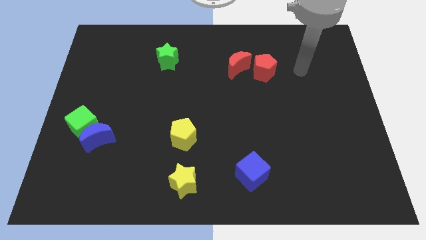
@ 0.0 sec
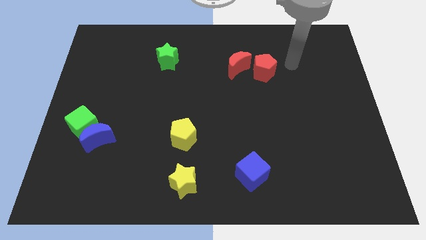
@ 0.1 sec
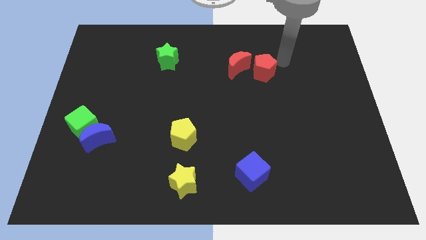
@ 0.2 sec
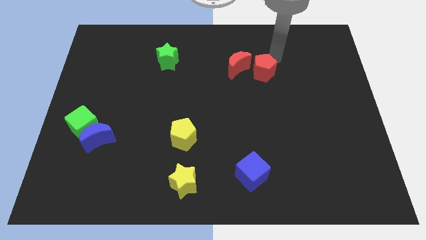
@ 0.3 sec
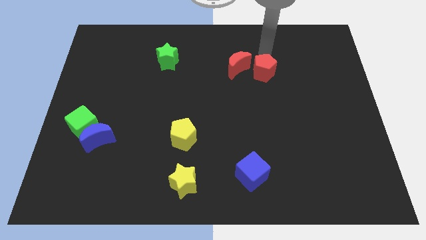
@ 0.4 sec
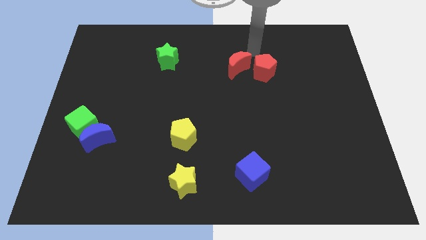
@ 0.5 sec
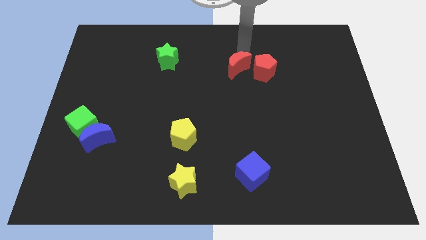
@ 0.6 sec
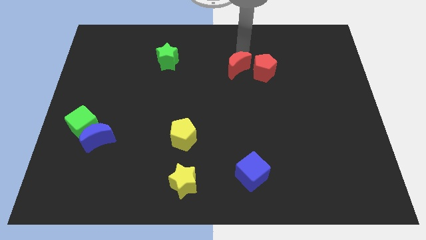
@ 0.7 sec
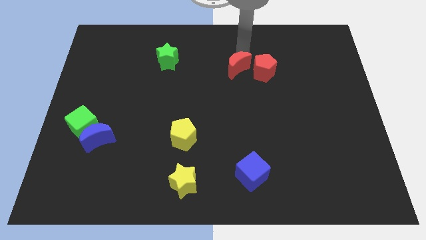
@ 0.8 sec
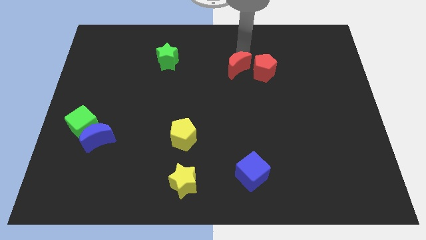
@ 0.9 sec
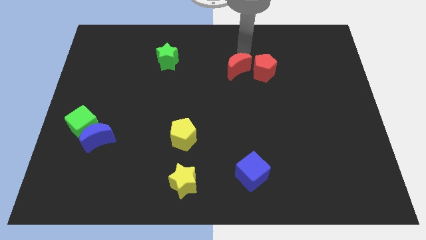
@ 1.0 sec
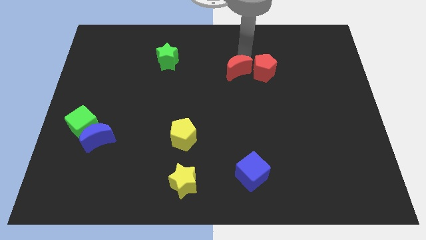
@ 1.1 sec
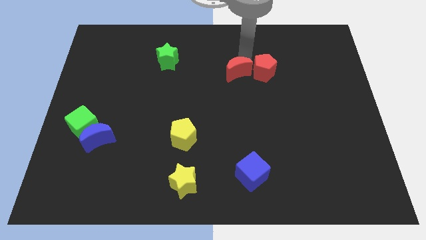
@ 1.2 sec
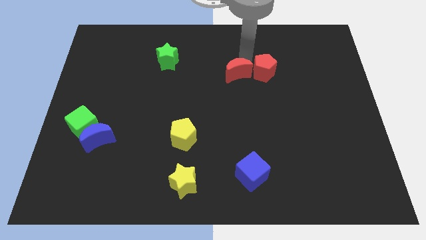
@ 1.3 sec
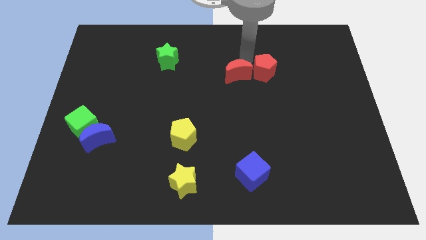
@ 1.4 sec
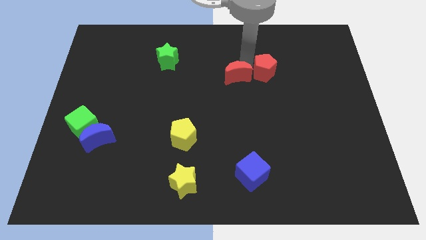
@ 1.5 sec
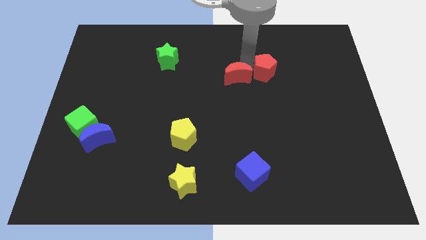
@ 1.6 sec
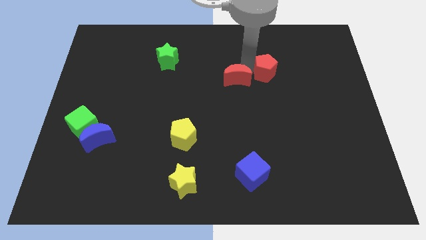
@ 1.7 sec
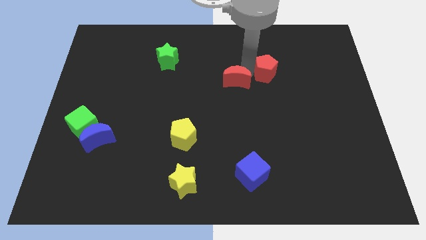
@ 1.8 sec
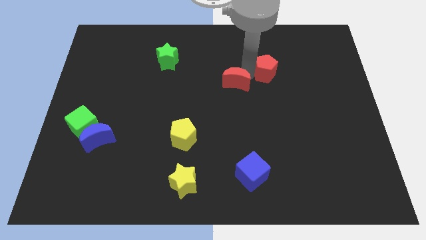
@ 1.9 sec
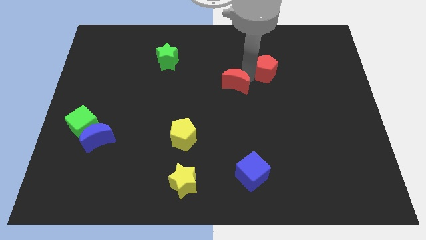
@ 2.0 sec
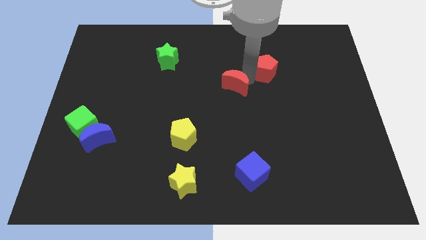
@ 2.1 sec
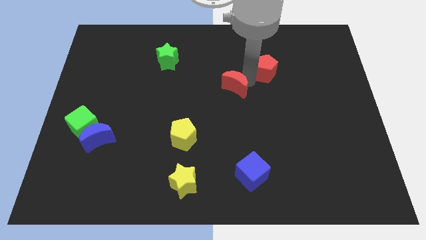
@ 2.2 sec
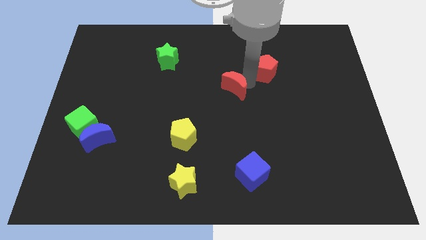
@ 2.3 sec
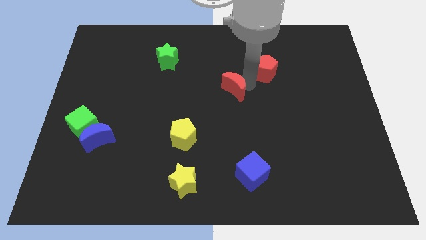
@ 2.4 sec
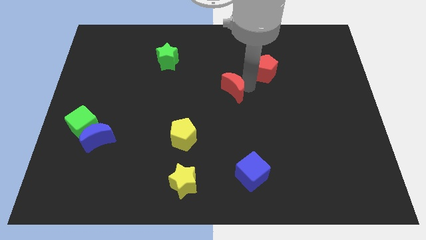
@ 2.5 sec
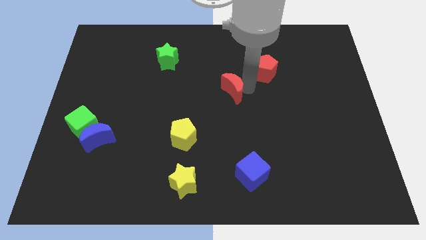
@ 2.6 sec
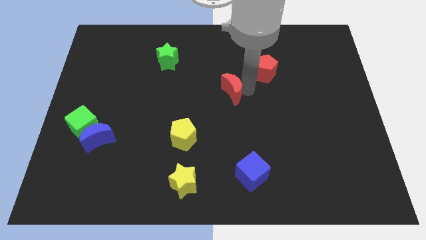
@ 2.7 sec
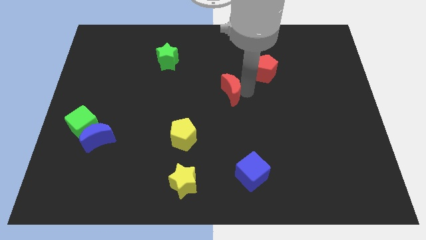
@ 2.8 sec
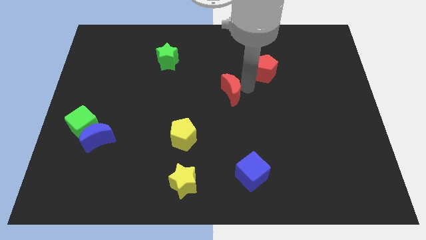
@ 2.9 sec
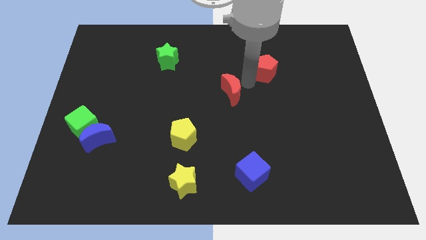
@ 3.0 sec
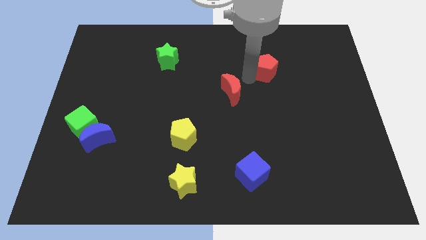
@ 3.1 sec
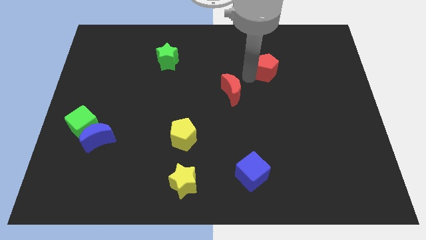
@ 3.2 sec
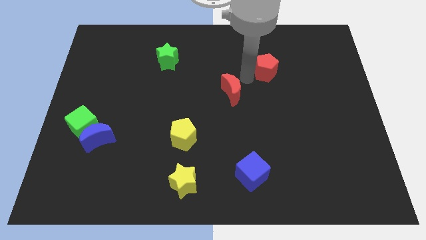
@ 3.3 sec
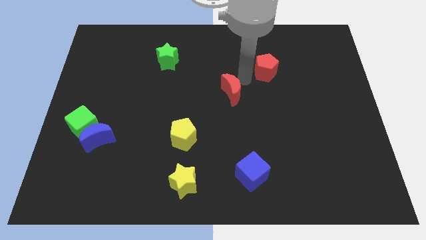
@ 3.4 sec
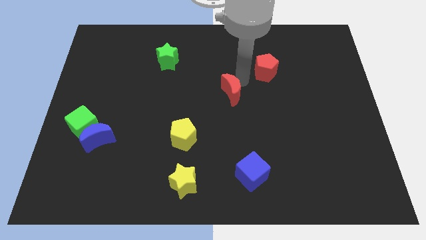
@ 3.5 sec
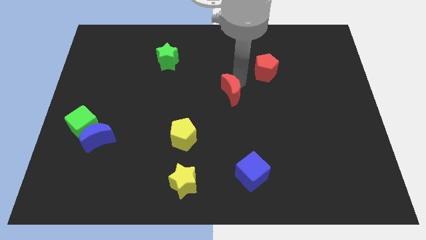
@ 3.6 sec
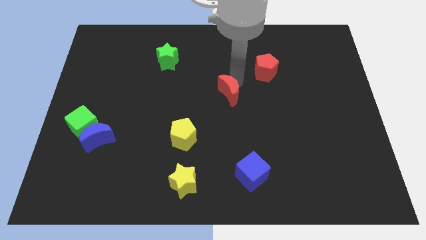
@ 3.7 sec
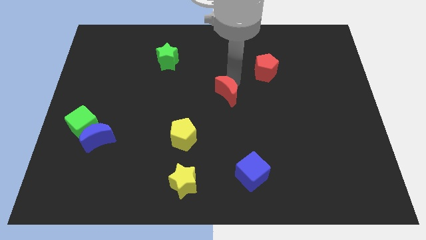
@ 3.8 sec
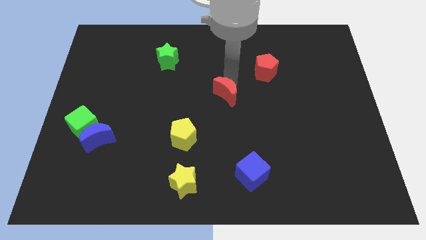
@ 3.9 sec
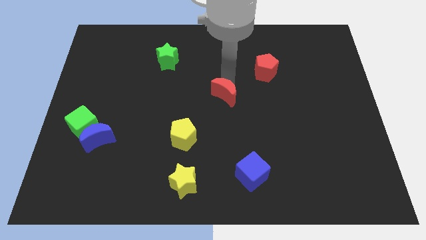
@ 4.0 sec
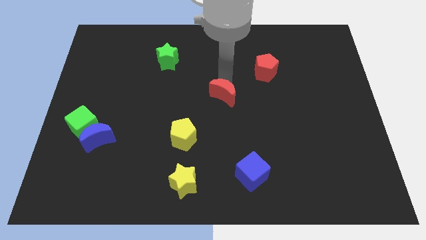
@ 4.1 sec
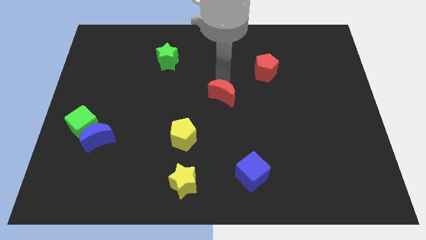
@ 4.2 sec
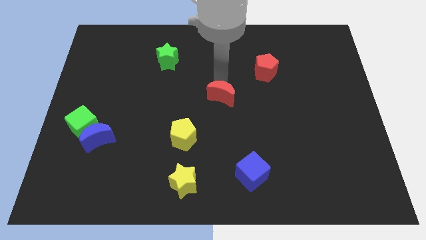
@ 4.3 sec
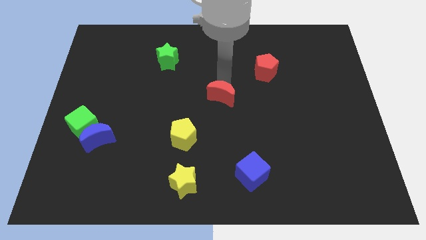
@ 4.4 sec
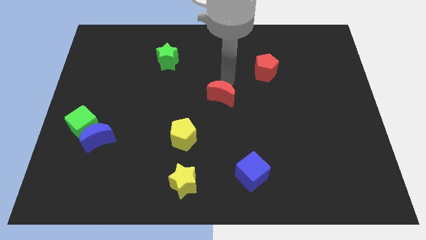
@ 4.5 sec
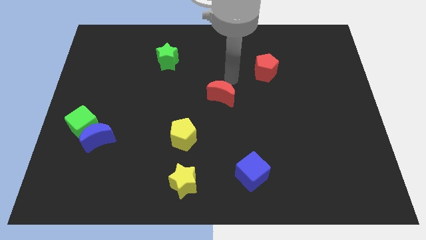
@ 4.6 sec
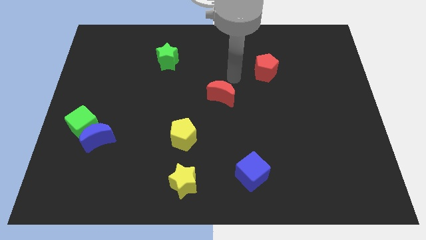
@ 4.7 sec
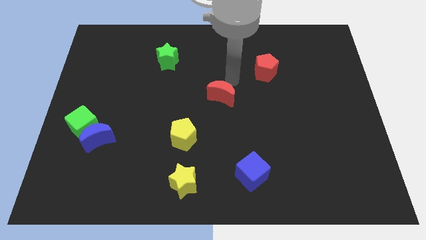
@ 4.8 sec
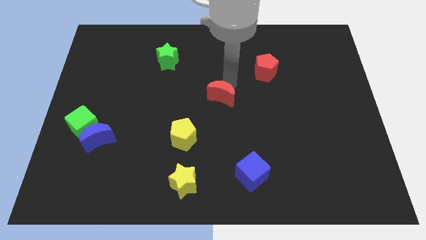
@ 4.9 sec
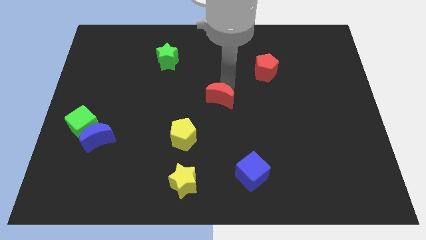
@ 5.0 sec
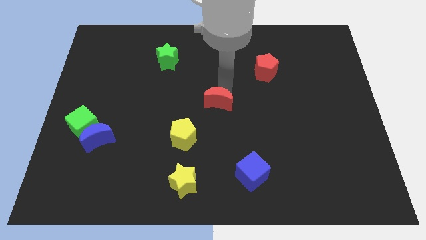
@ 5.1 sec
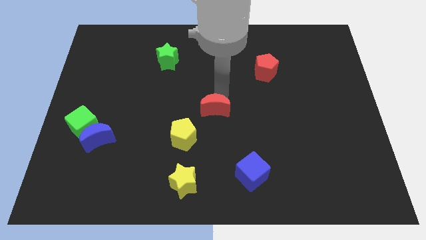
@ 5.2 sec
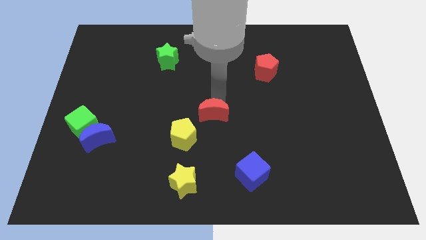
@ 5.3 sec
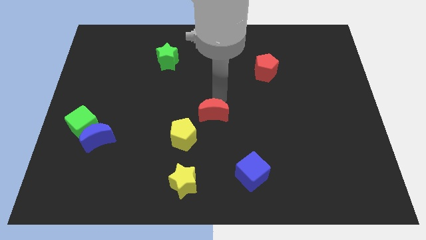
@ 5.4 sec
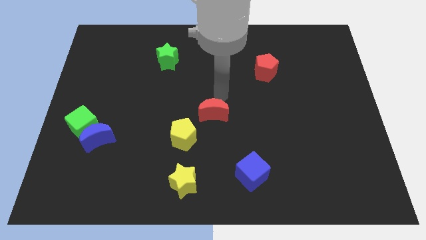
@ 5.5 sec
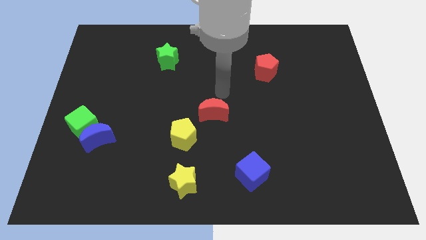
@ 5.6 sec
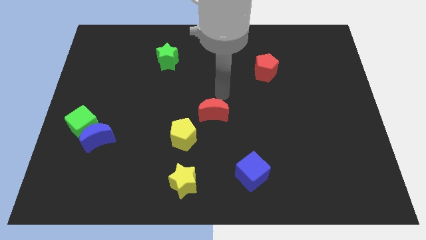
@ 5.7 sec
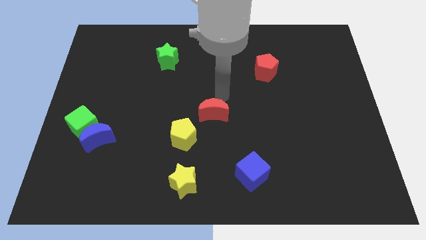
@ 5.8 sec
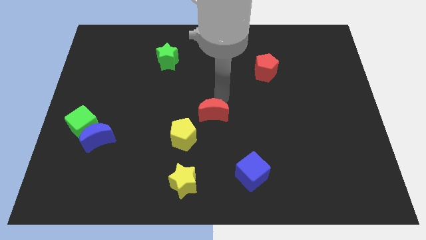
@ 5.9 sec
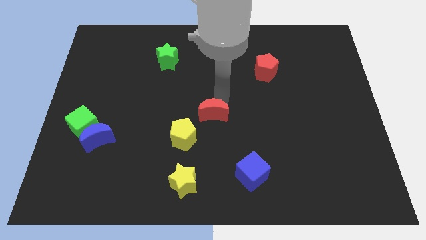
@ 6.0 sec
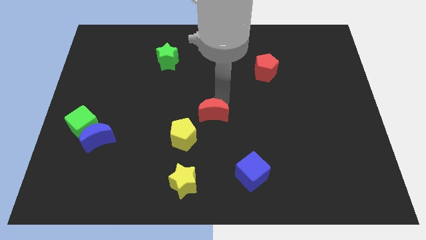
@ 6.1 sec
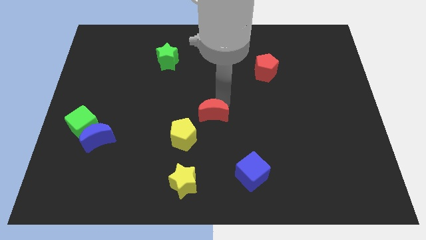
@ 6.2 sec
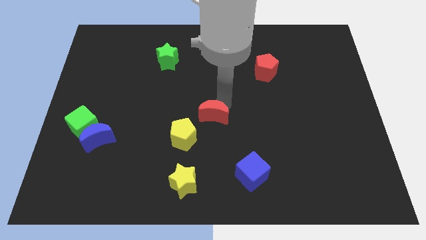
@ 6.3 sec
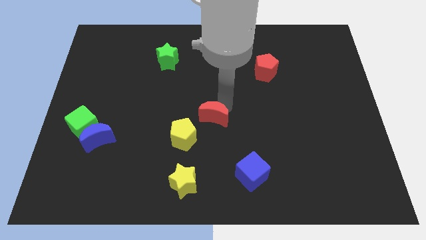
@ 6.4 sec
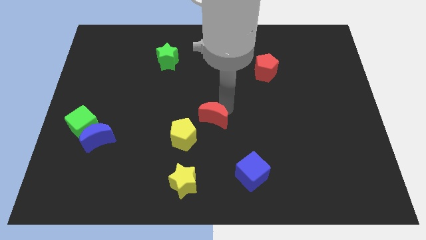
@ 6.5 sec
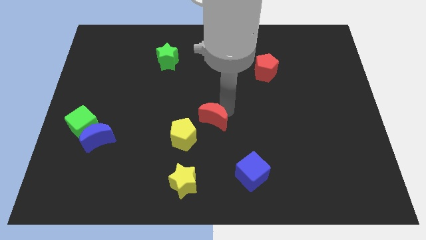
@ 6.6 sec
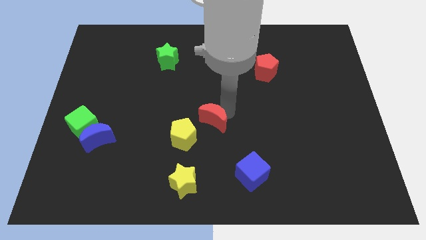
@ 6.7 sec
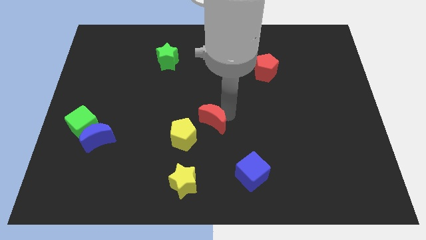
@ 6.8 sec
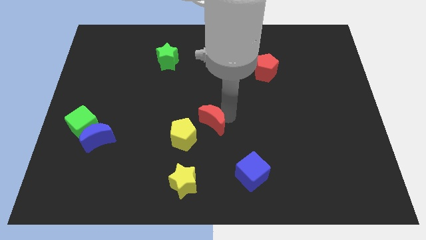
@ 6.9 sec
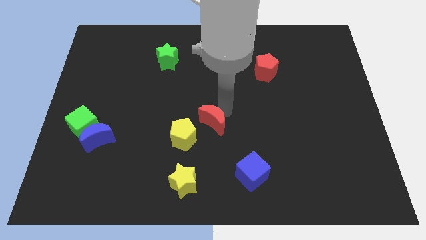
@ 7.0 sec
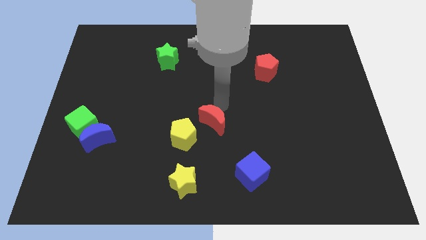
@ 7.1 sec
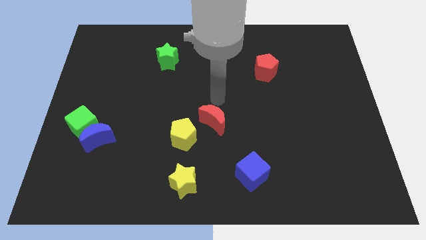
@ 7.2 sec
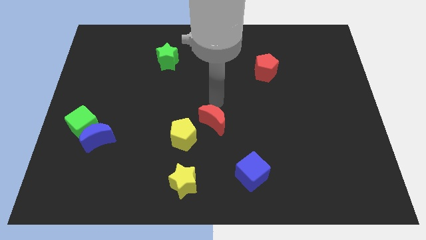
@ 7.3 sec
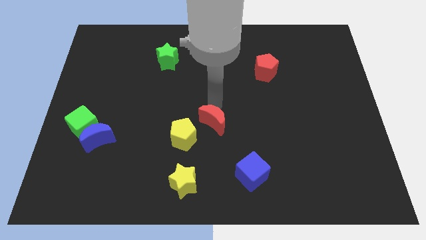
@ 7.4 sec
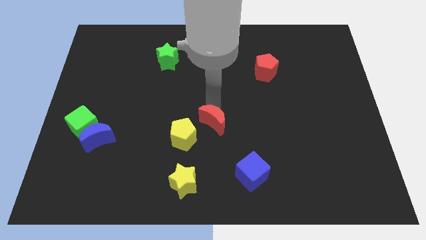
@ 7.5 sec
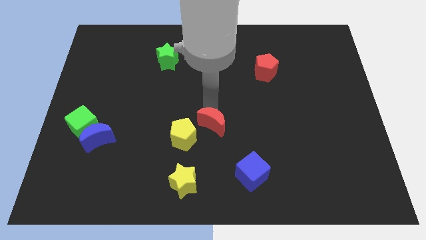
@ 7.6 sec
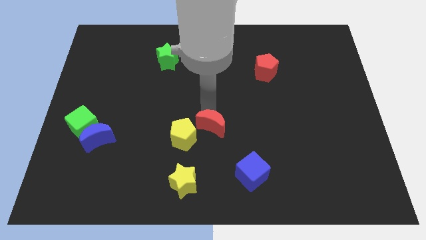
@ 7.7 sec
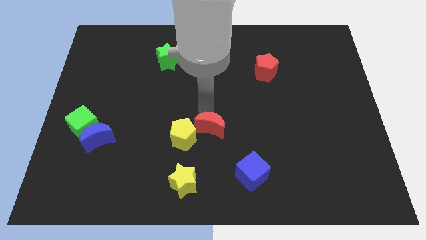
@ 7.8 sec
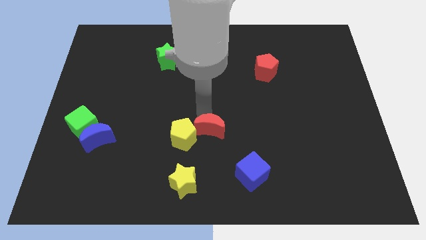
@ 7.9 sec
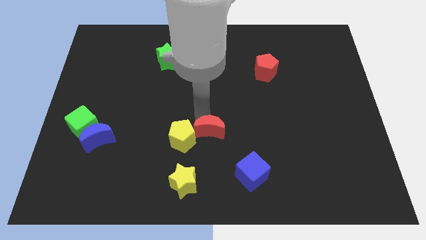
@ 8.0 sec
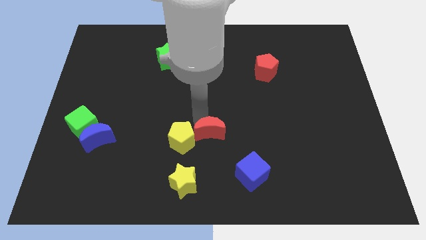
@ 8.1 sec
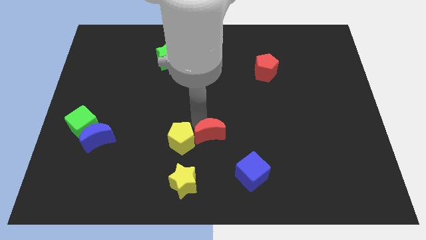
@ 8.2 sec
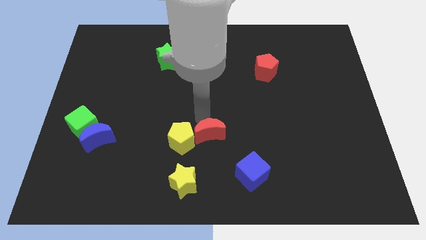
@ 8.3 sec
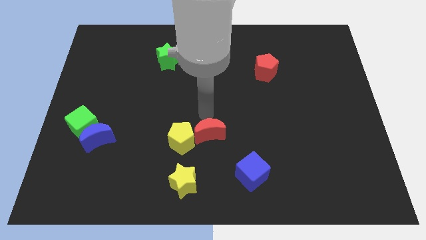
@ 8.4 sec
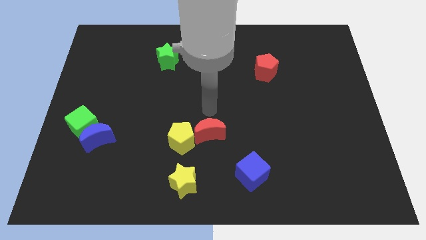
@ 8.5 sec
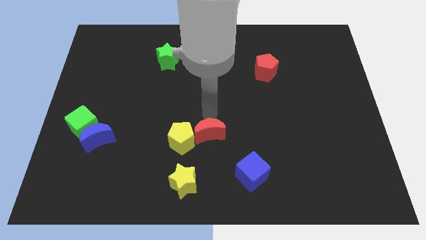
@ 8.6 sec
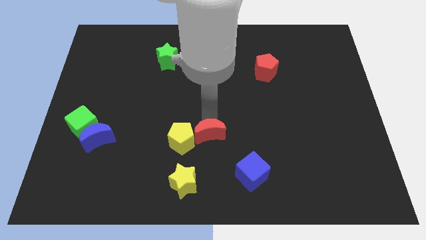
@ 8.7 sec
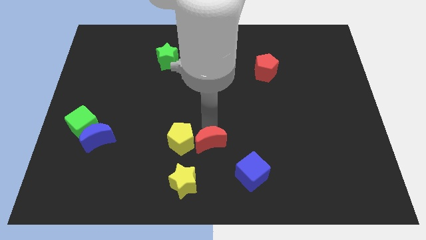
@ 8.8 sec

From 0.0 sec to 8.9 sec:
push the red moon to the top right of the yellow star
